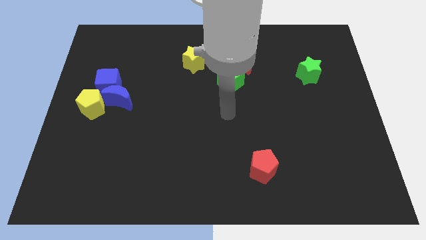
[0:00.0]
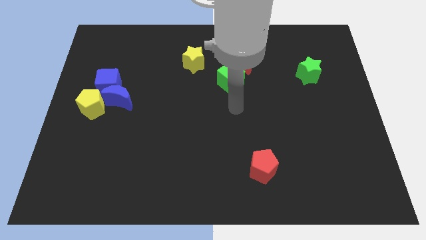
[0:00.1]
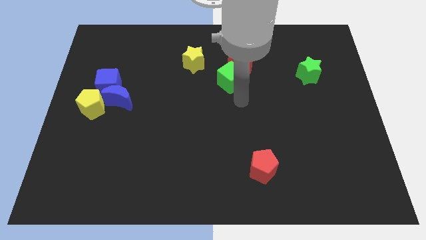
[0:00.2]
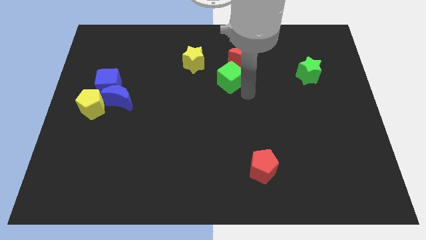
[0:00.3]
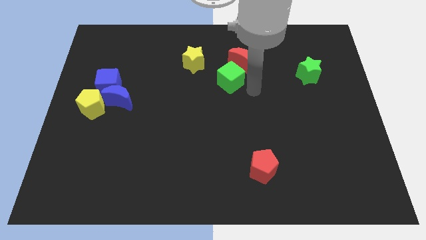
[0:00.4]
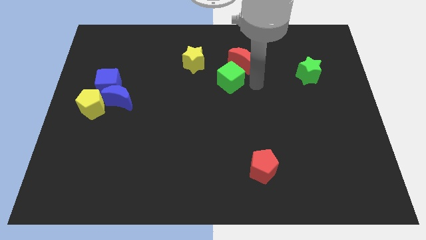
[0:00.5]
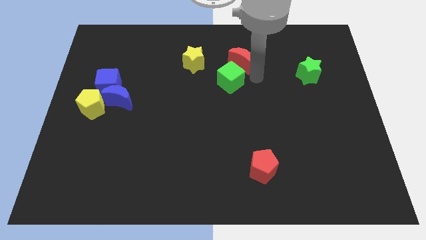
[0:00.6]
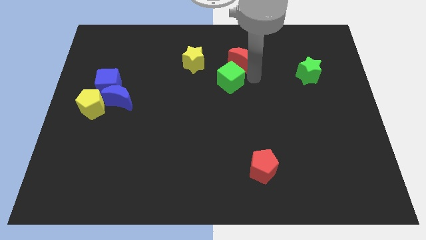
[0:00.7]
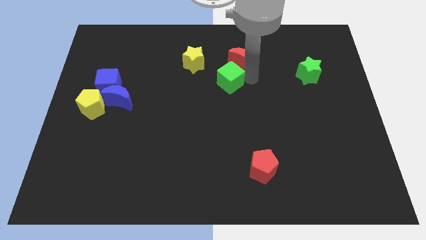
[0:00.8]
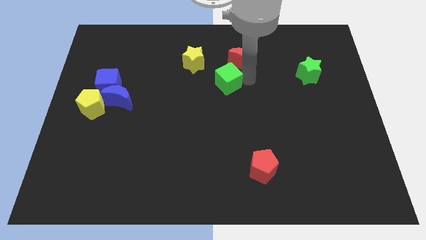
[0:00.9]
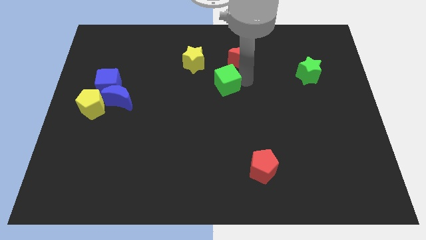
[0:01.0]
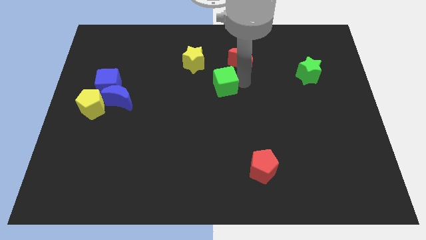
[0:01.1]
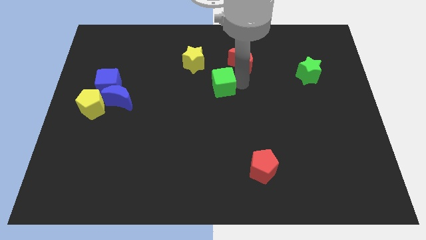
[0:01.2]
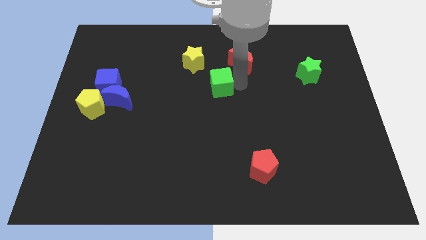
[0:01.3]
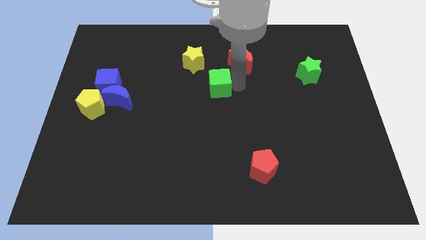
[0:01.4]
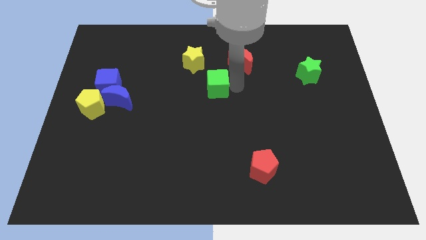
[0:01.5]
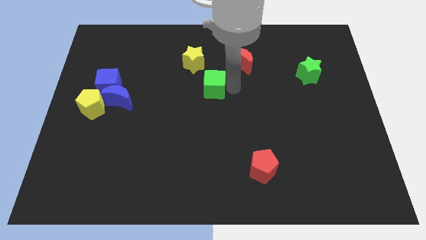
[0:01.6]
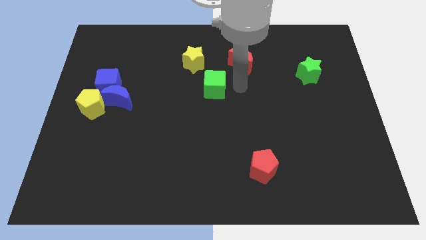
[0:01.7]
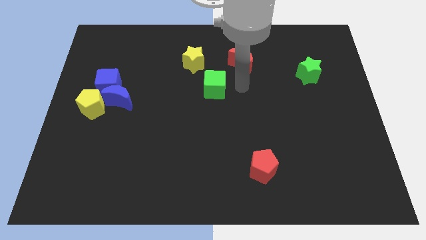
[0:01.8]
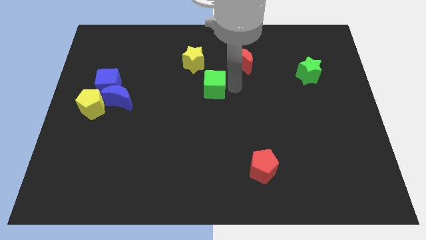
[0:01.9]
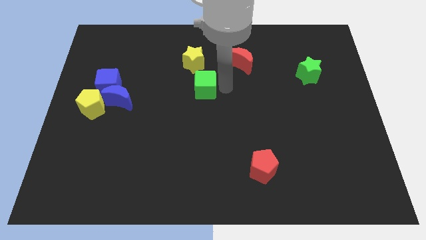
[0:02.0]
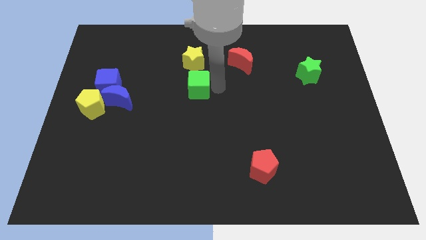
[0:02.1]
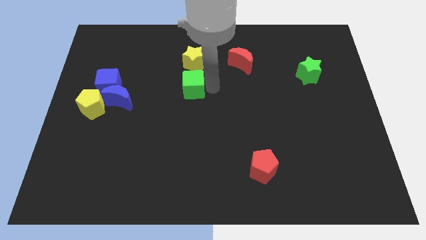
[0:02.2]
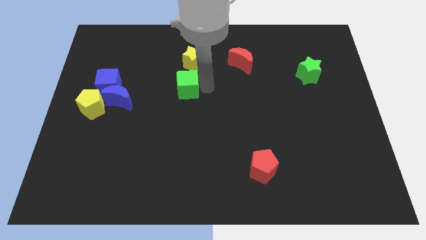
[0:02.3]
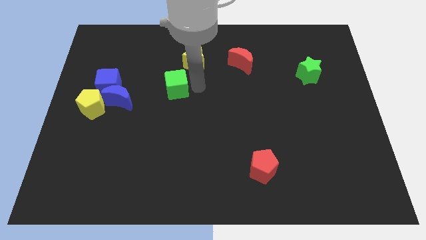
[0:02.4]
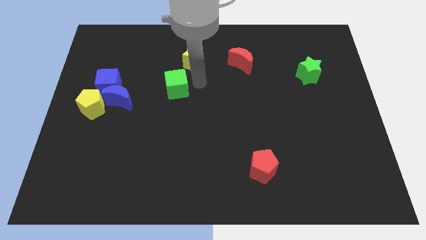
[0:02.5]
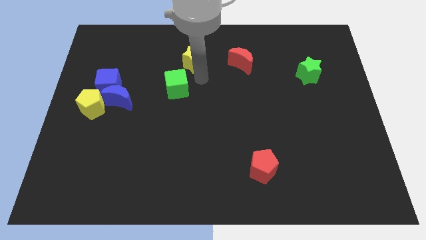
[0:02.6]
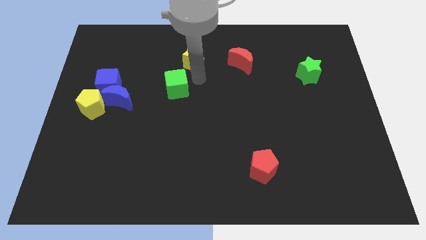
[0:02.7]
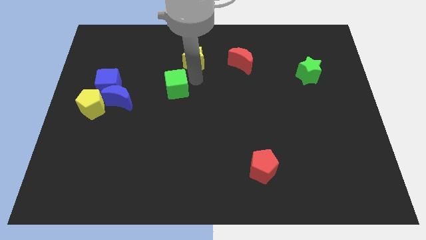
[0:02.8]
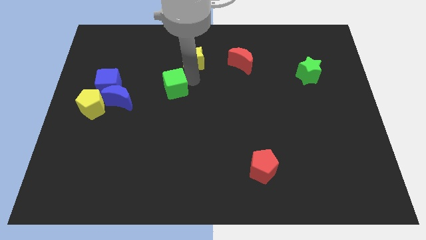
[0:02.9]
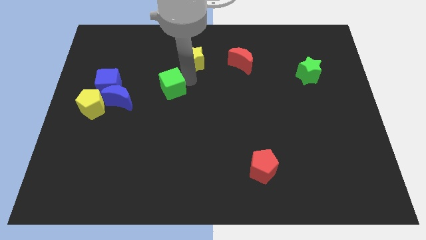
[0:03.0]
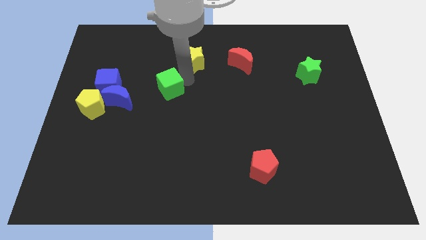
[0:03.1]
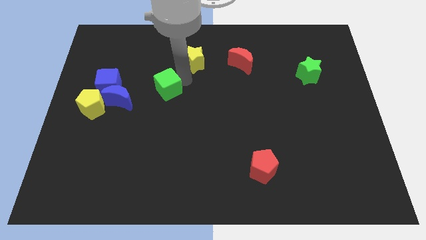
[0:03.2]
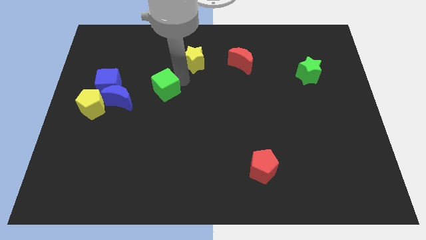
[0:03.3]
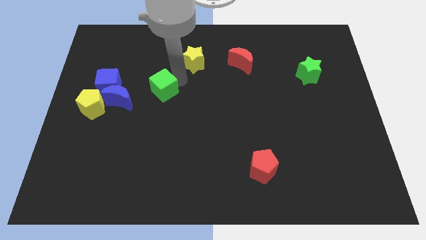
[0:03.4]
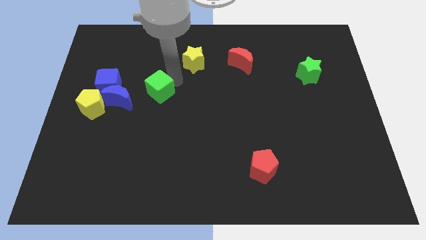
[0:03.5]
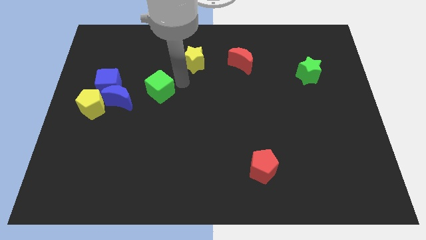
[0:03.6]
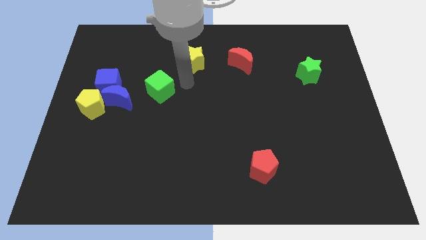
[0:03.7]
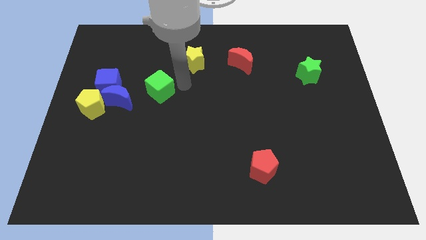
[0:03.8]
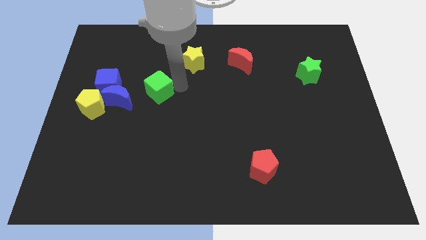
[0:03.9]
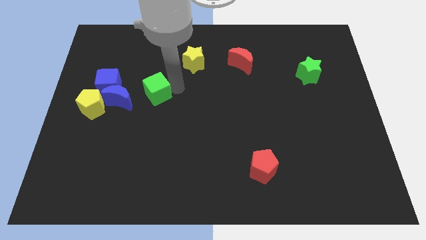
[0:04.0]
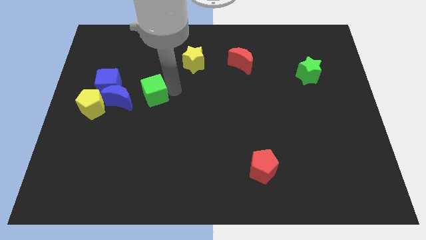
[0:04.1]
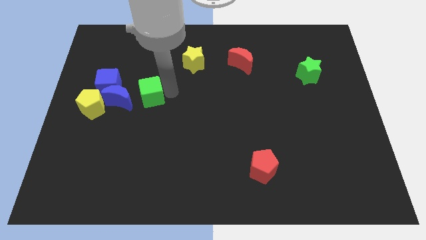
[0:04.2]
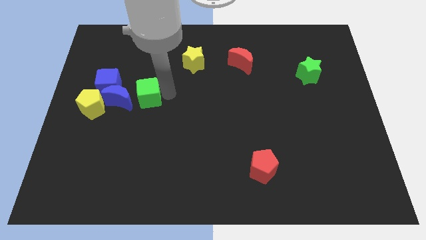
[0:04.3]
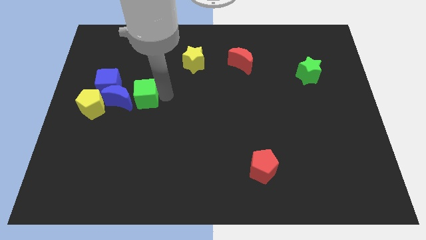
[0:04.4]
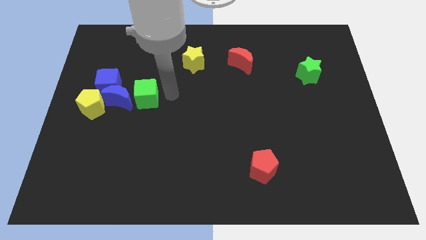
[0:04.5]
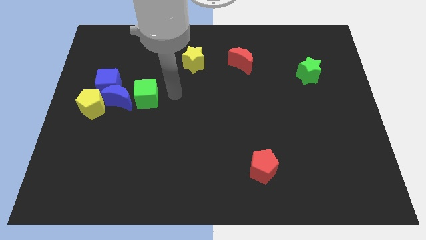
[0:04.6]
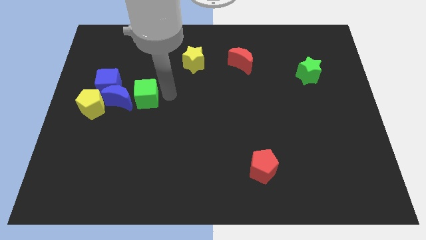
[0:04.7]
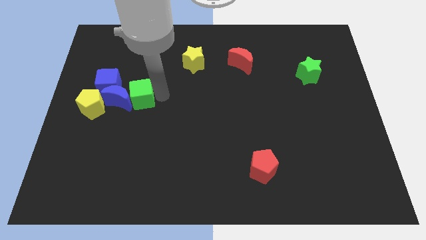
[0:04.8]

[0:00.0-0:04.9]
put the green cube to the blue moon

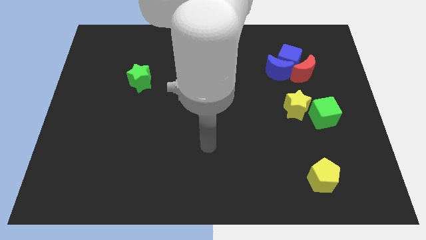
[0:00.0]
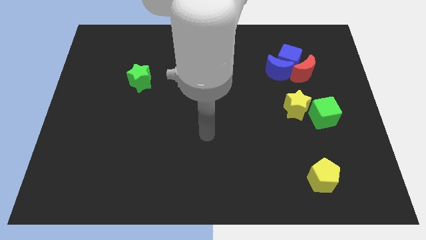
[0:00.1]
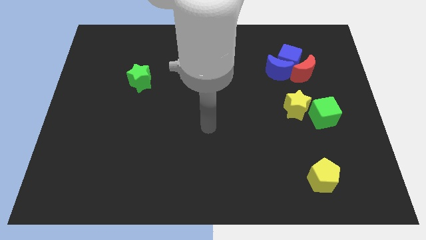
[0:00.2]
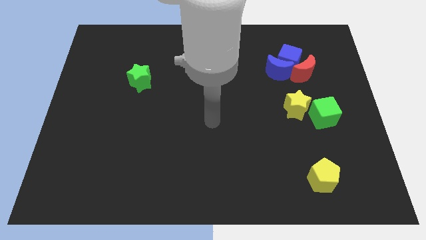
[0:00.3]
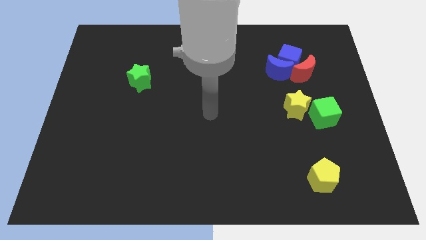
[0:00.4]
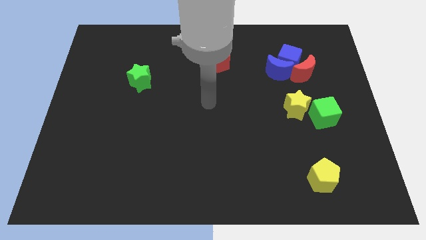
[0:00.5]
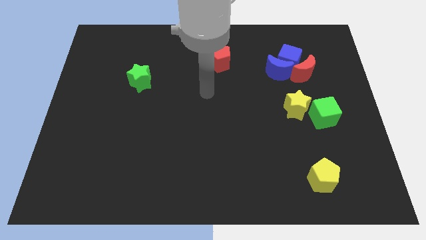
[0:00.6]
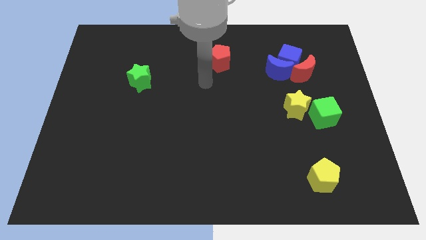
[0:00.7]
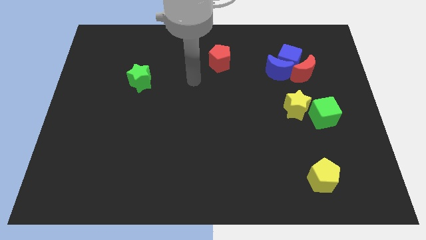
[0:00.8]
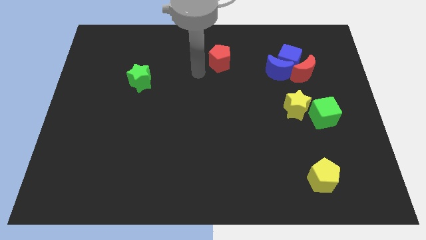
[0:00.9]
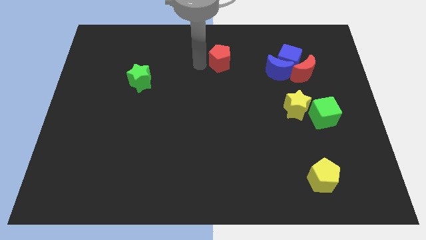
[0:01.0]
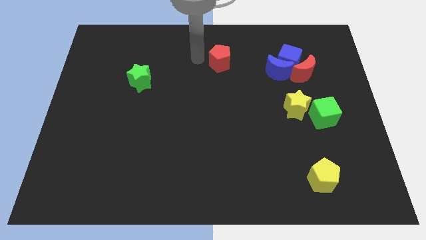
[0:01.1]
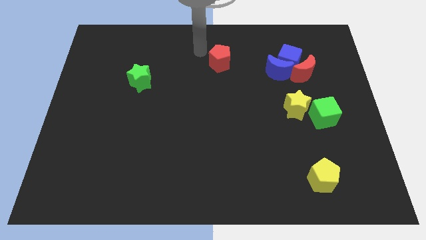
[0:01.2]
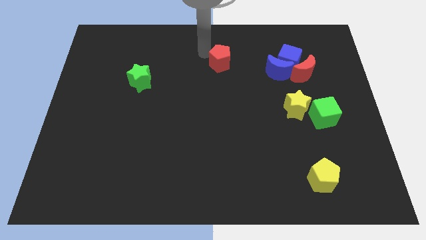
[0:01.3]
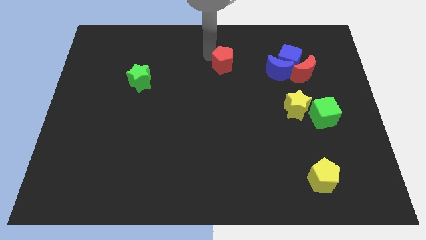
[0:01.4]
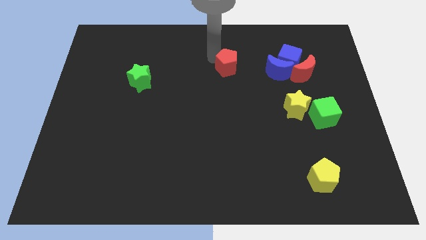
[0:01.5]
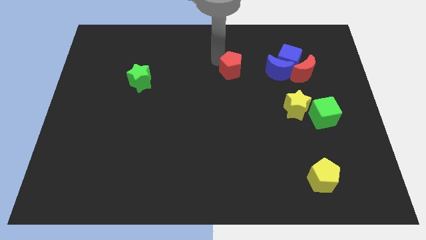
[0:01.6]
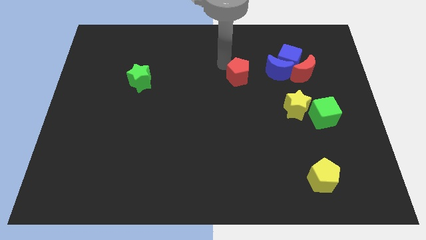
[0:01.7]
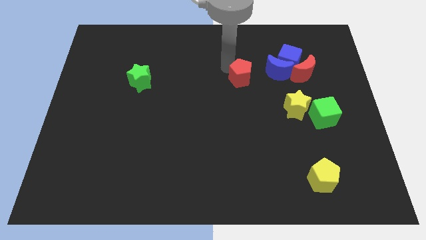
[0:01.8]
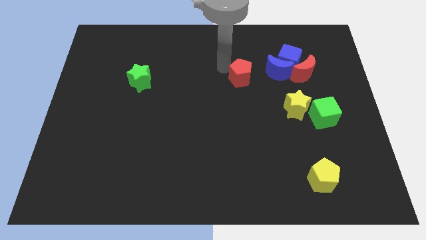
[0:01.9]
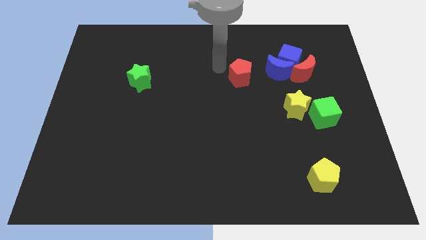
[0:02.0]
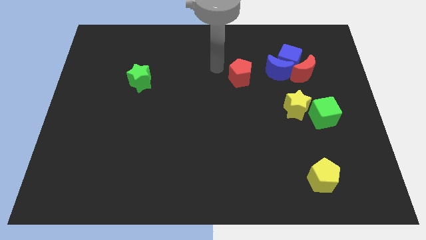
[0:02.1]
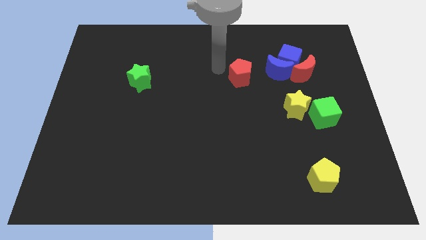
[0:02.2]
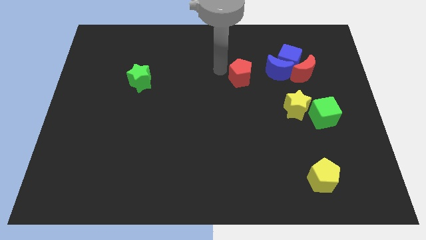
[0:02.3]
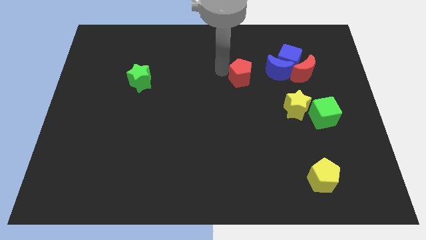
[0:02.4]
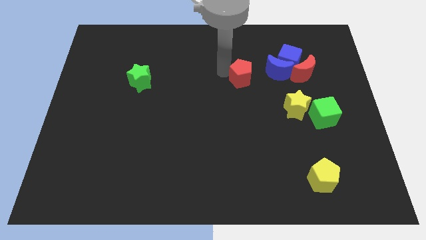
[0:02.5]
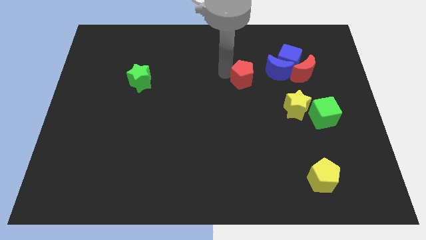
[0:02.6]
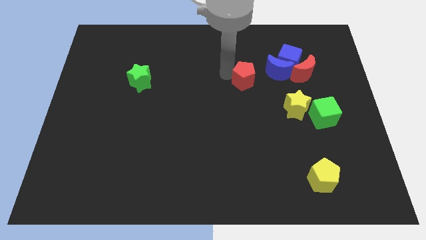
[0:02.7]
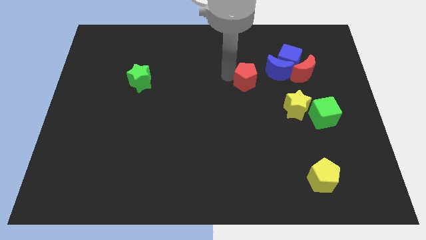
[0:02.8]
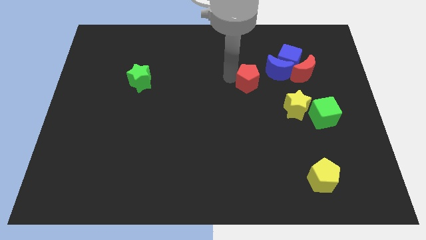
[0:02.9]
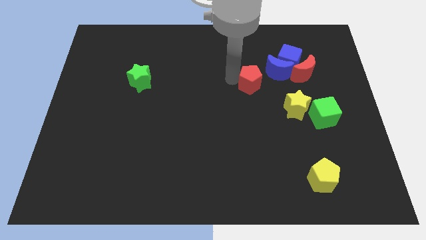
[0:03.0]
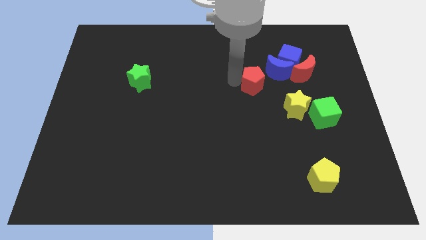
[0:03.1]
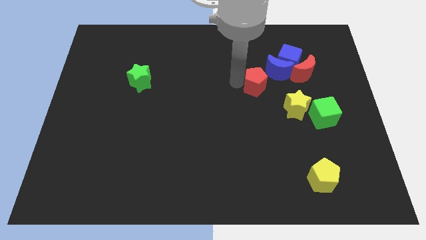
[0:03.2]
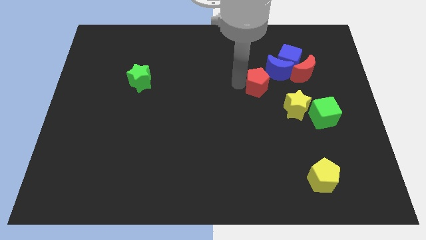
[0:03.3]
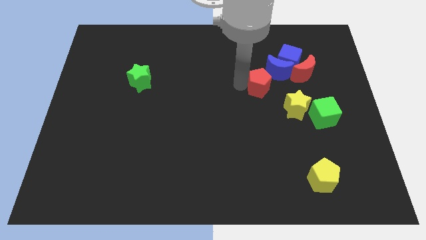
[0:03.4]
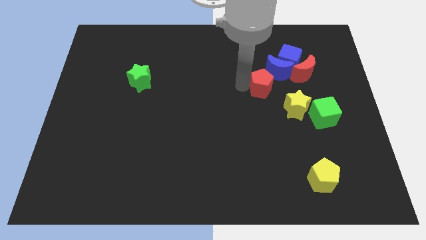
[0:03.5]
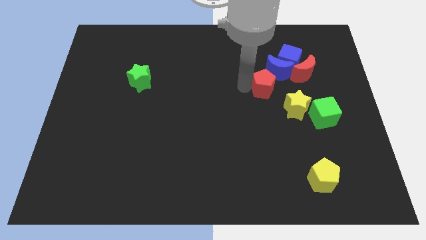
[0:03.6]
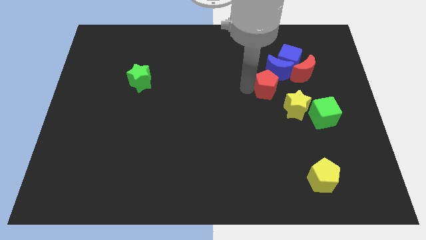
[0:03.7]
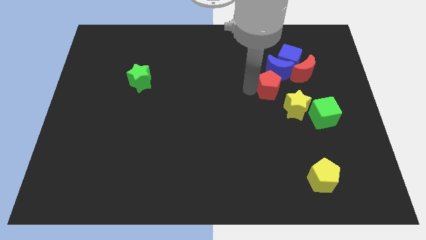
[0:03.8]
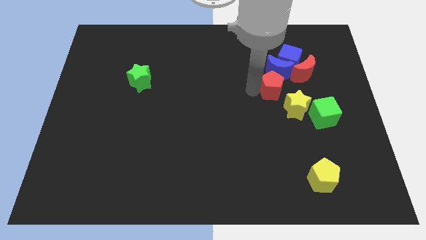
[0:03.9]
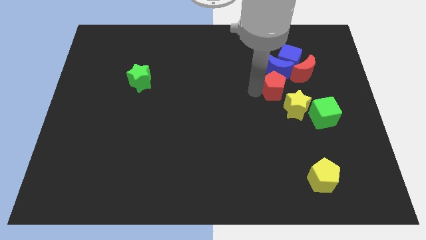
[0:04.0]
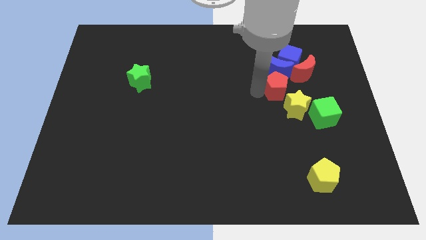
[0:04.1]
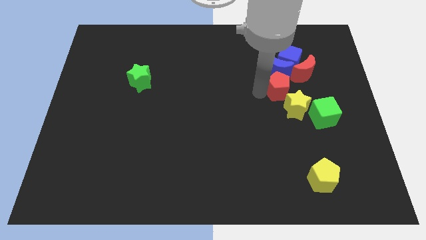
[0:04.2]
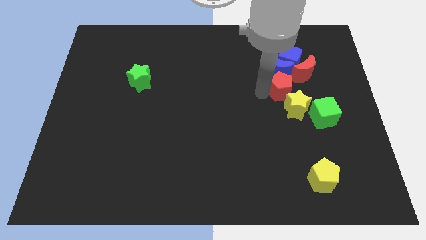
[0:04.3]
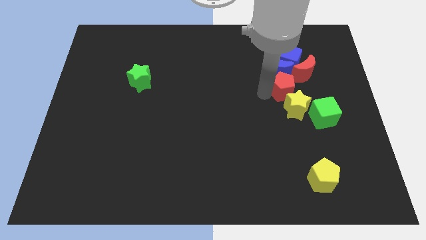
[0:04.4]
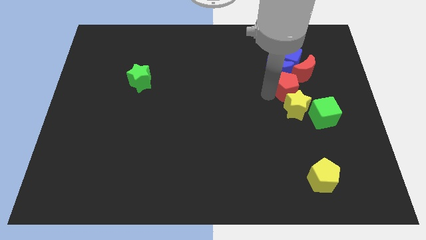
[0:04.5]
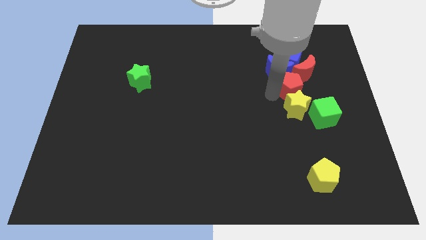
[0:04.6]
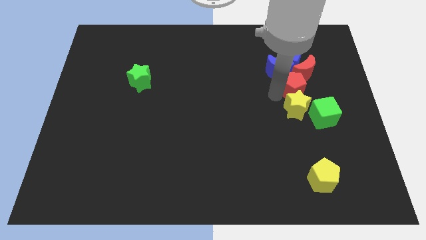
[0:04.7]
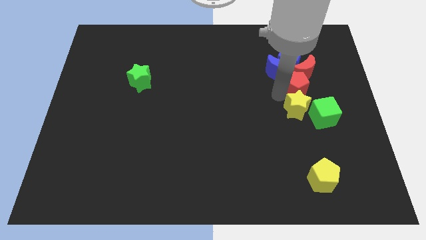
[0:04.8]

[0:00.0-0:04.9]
put the red pentagon to the red moon
